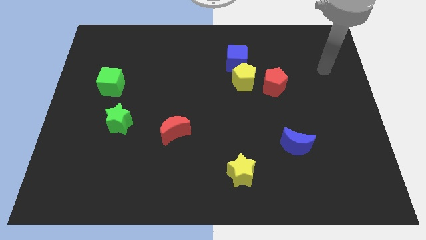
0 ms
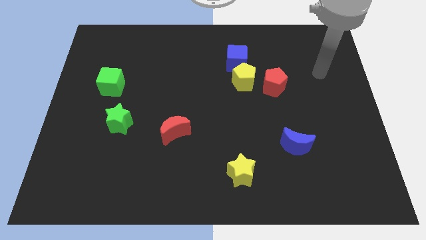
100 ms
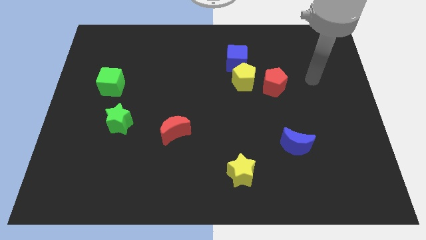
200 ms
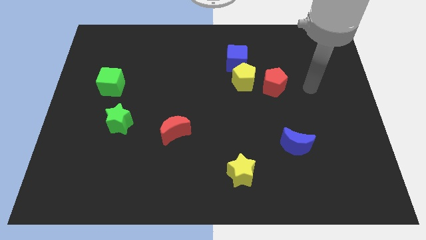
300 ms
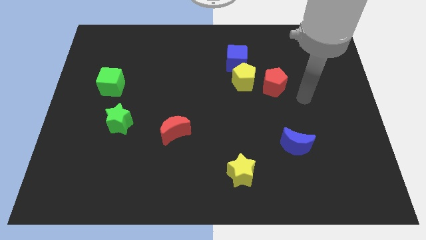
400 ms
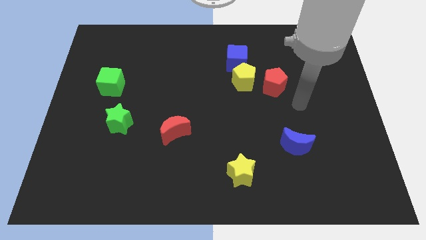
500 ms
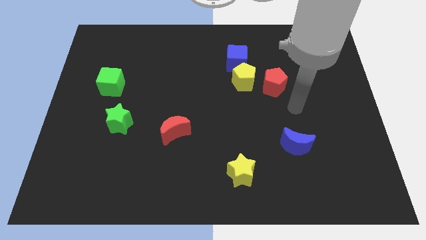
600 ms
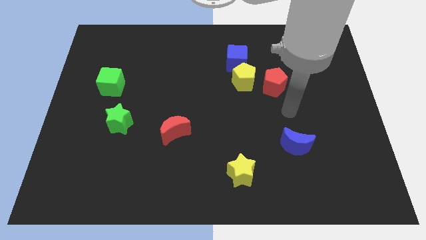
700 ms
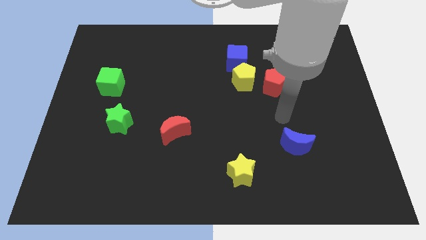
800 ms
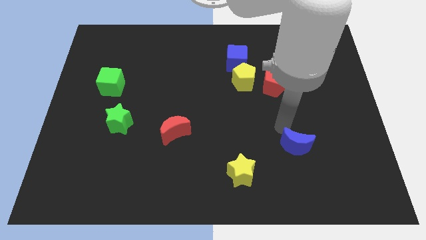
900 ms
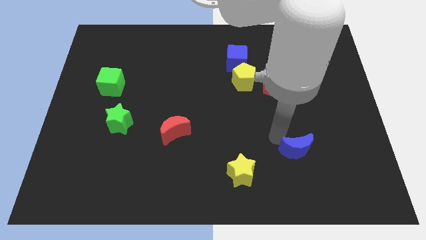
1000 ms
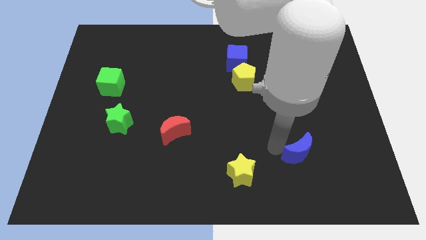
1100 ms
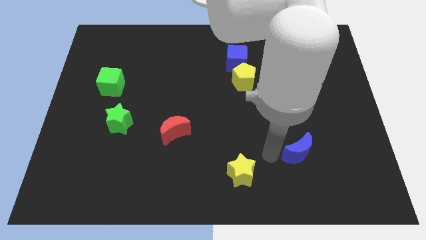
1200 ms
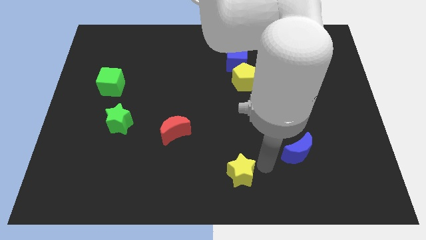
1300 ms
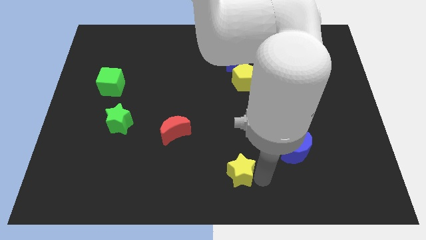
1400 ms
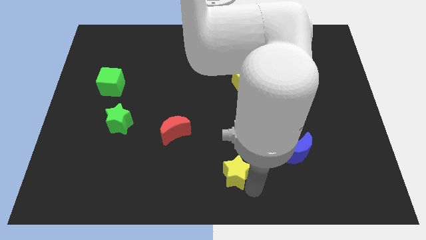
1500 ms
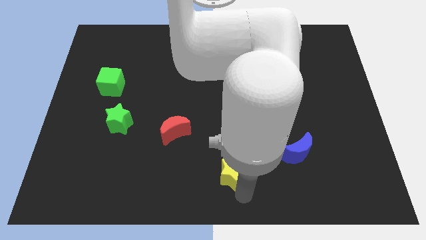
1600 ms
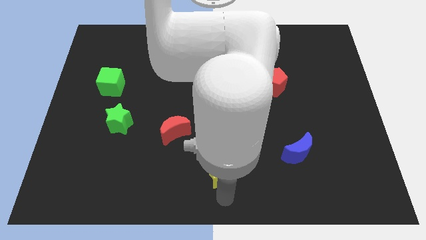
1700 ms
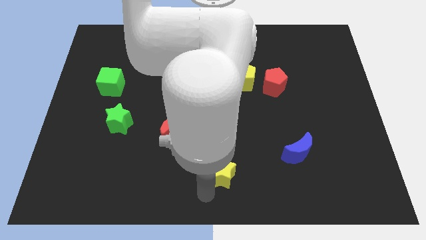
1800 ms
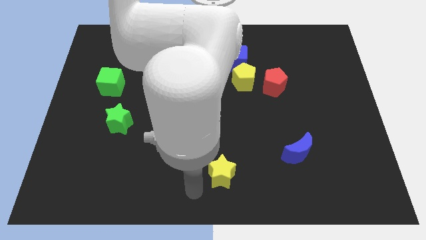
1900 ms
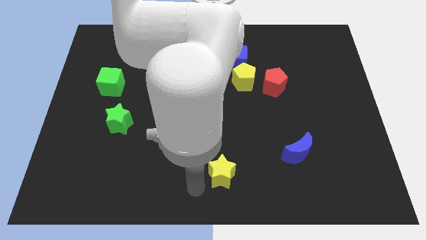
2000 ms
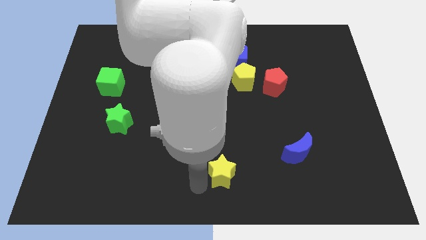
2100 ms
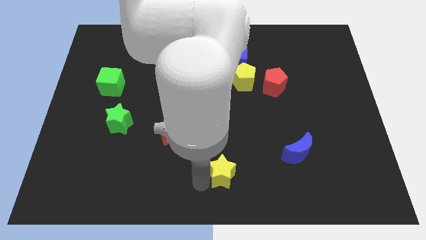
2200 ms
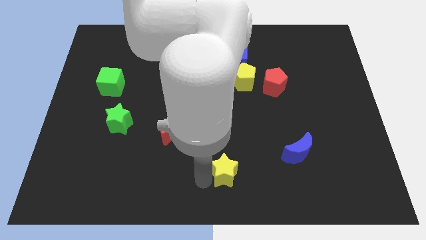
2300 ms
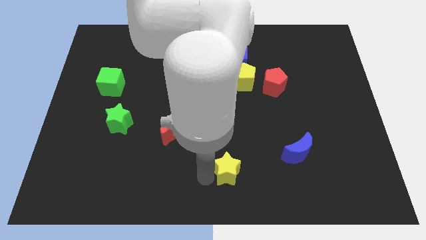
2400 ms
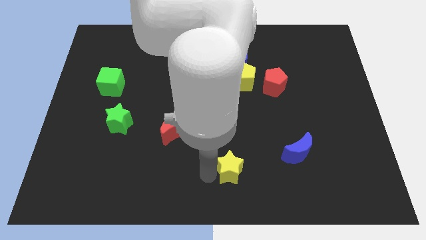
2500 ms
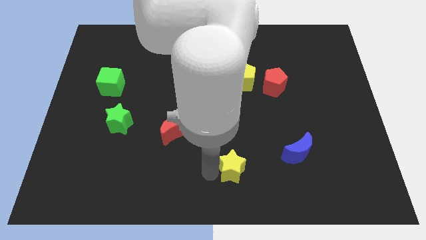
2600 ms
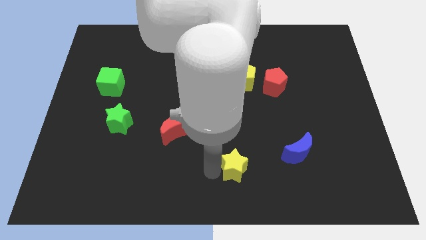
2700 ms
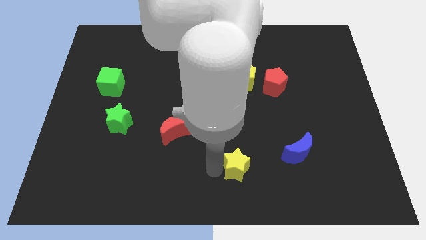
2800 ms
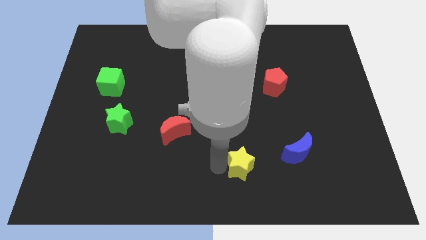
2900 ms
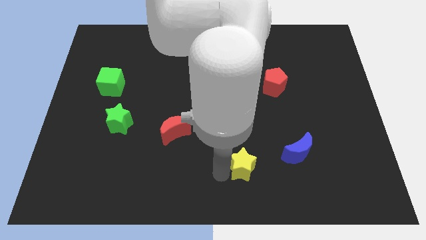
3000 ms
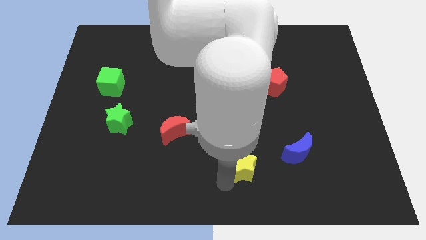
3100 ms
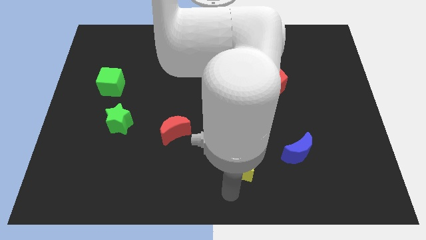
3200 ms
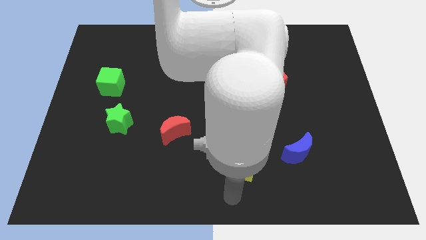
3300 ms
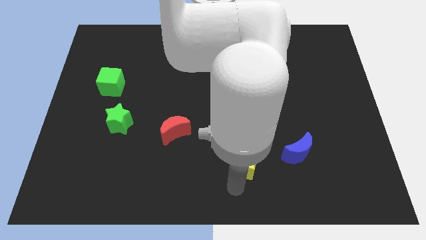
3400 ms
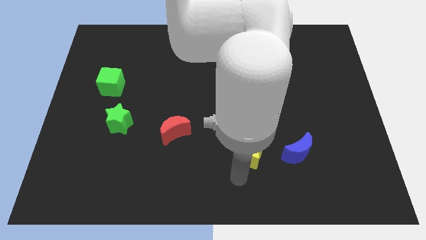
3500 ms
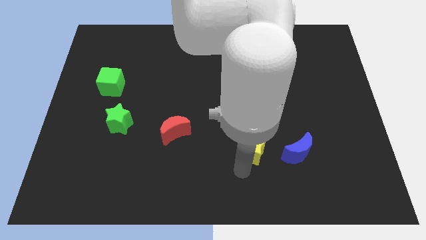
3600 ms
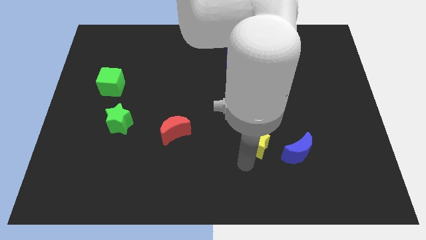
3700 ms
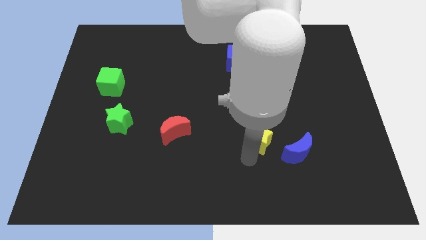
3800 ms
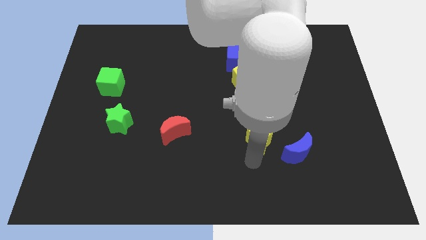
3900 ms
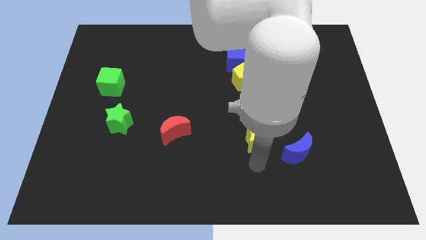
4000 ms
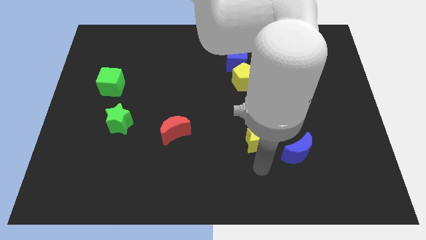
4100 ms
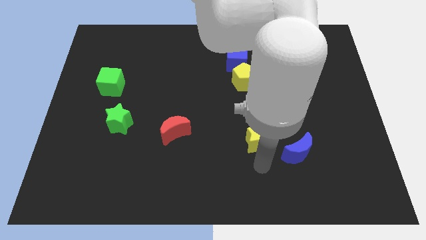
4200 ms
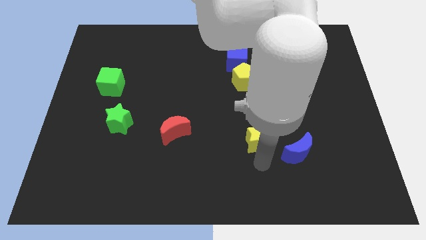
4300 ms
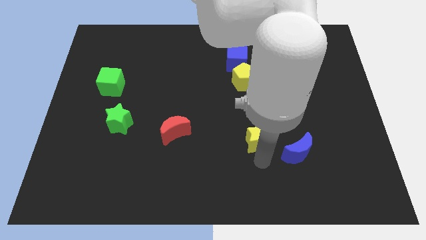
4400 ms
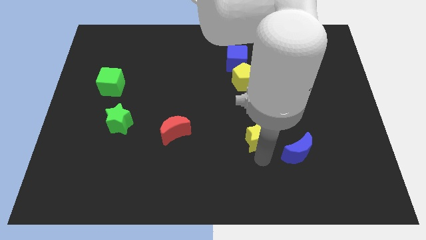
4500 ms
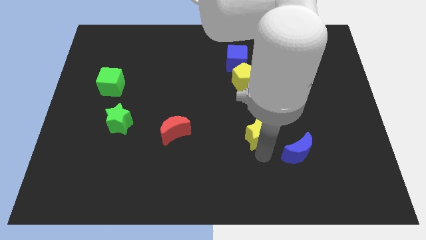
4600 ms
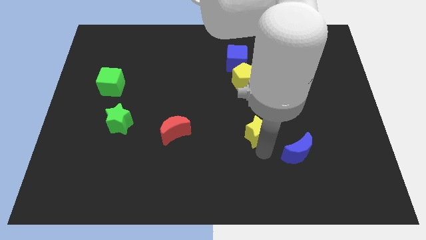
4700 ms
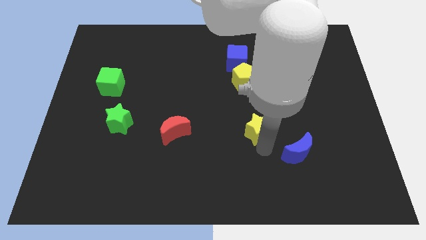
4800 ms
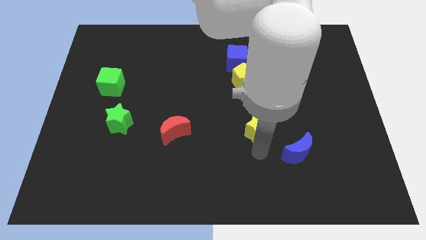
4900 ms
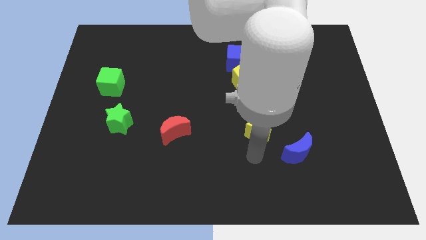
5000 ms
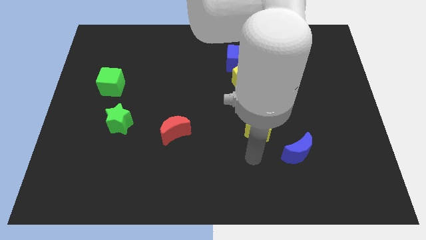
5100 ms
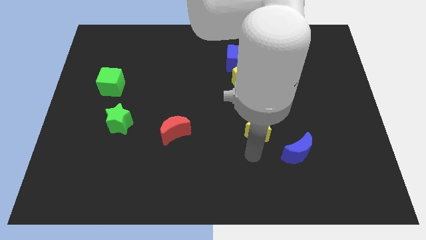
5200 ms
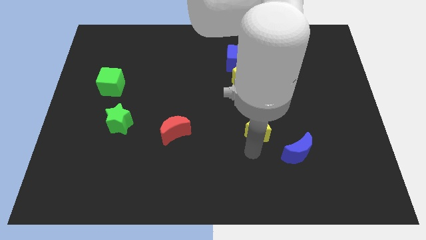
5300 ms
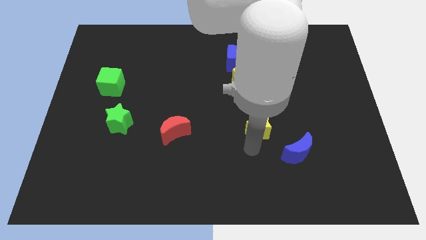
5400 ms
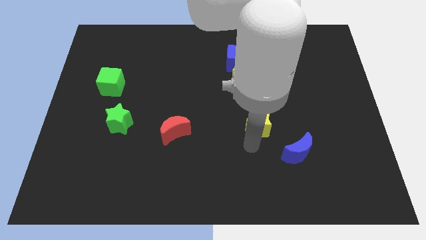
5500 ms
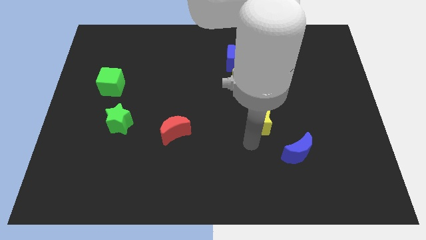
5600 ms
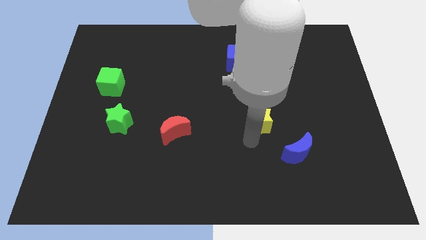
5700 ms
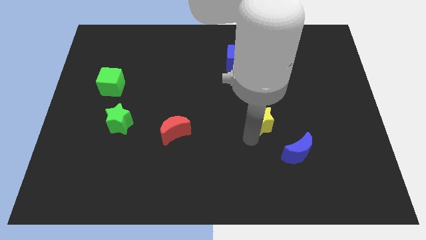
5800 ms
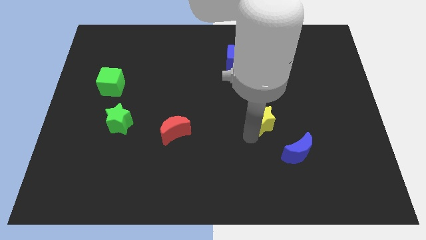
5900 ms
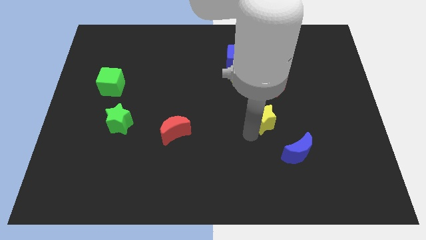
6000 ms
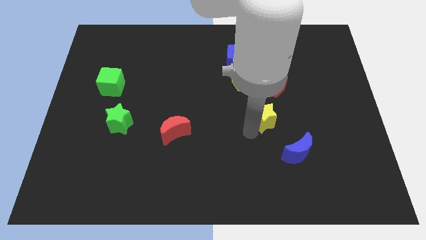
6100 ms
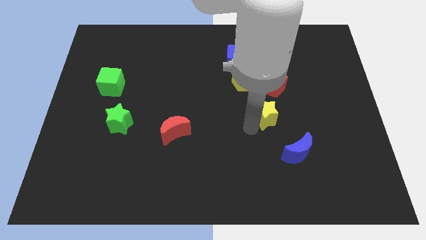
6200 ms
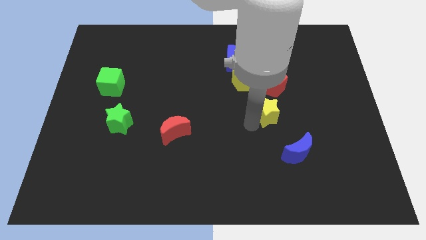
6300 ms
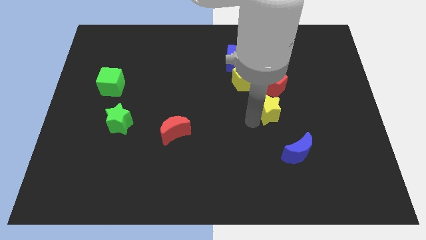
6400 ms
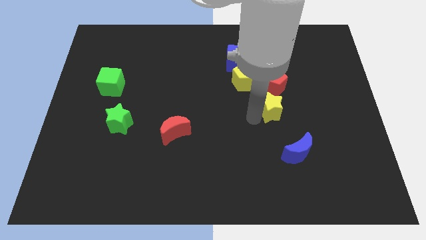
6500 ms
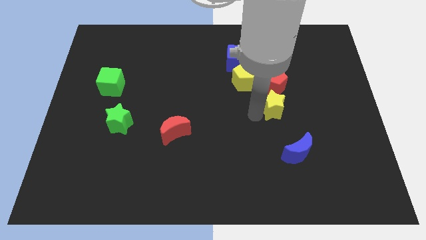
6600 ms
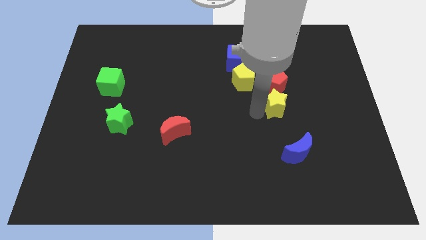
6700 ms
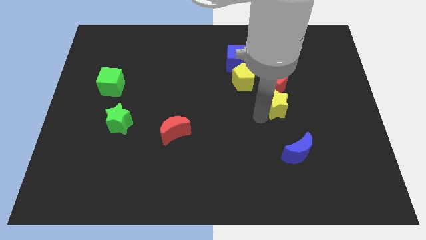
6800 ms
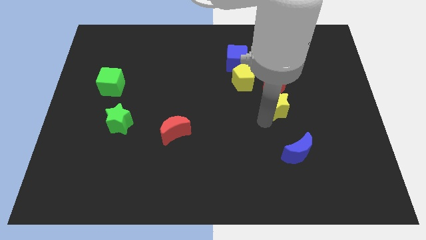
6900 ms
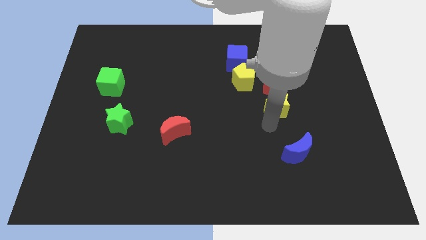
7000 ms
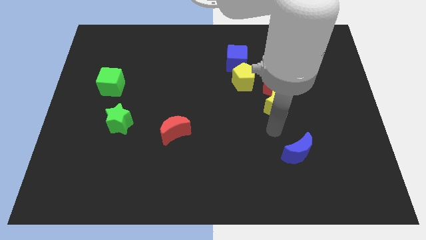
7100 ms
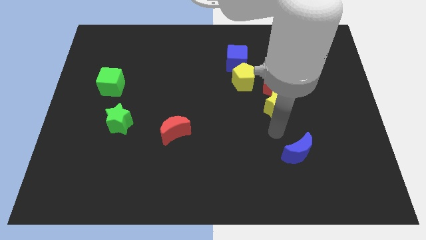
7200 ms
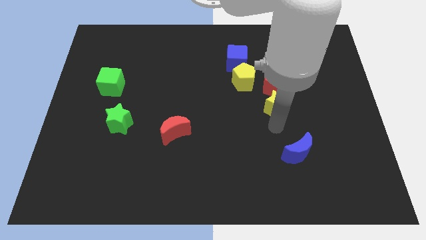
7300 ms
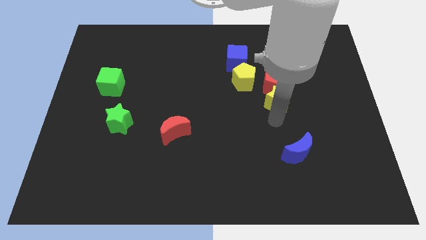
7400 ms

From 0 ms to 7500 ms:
push the yellow star close to the red pentagon

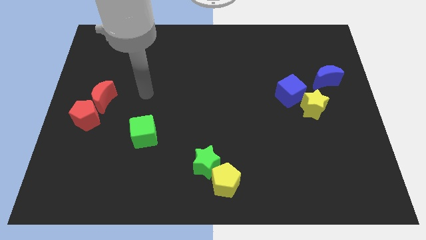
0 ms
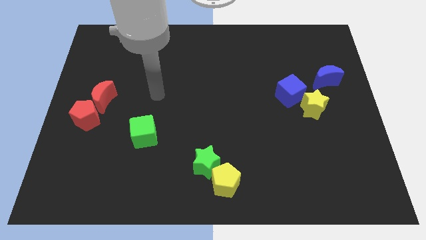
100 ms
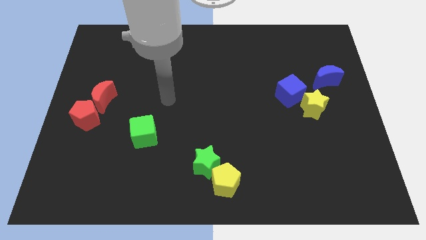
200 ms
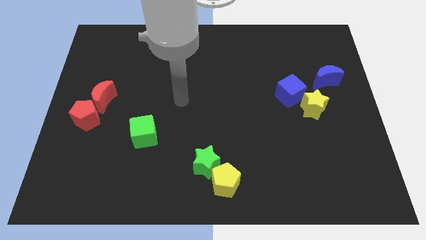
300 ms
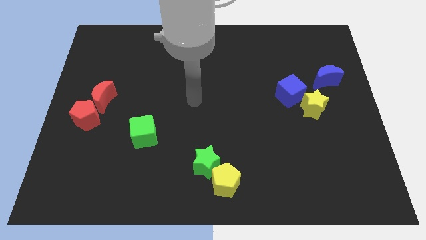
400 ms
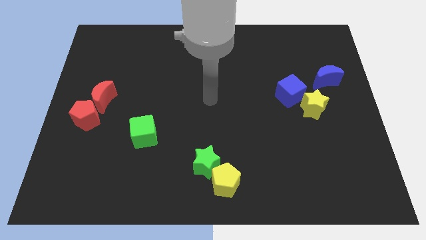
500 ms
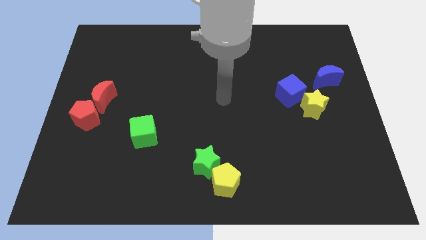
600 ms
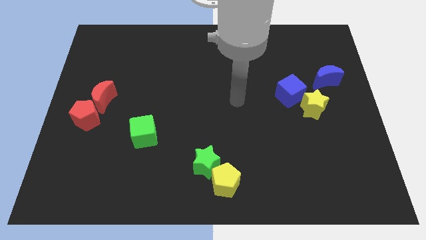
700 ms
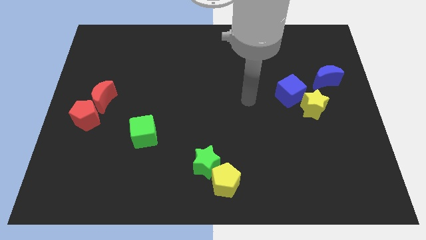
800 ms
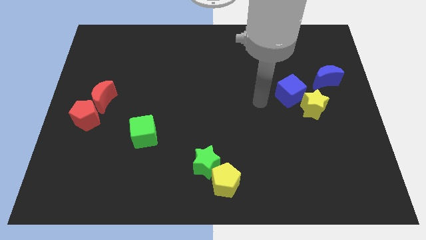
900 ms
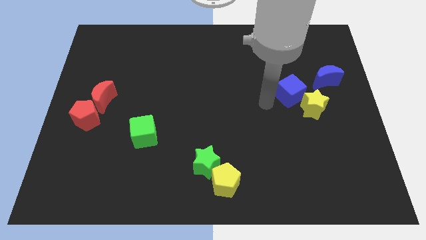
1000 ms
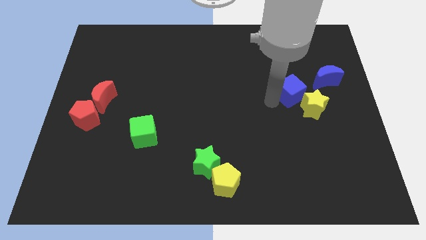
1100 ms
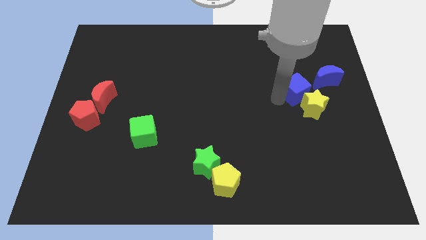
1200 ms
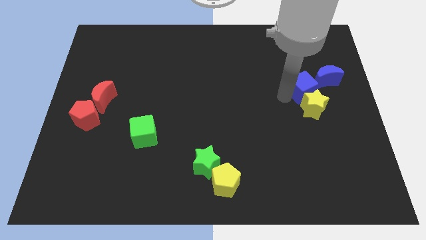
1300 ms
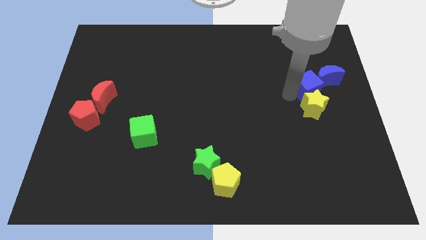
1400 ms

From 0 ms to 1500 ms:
slide the blue cube to the blue moon
